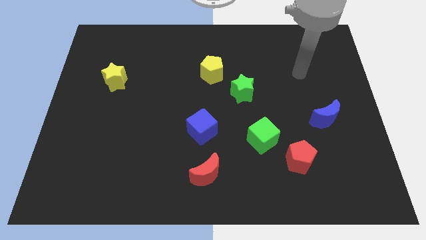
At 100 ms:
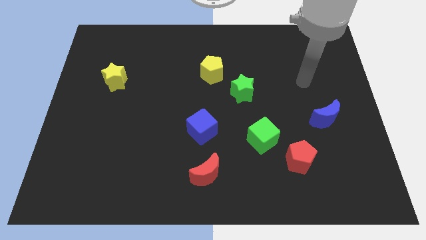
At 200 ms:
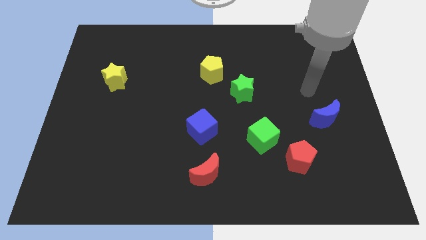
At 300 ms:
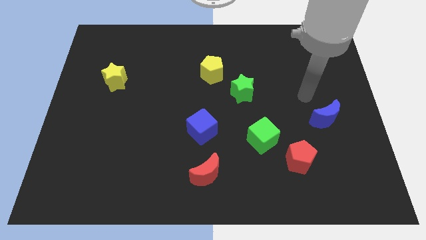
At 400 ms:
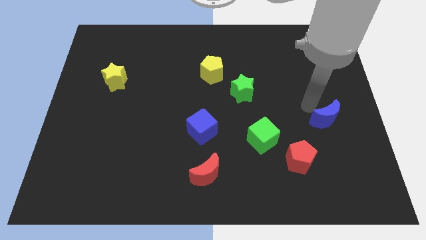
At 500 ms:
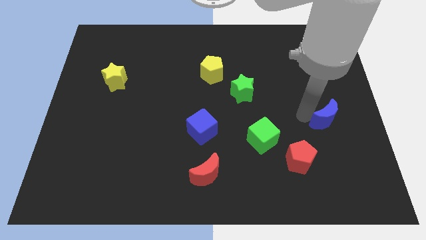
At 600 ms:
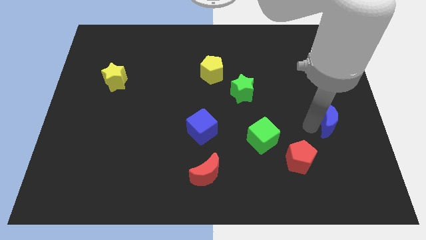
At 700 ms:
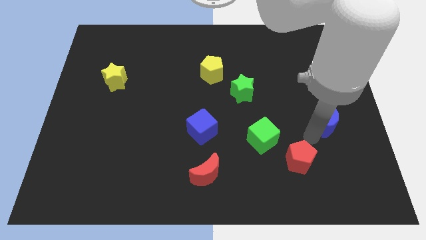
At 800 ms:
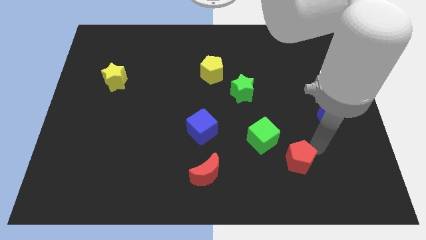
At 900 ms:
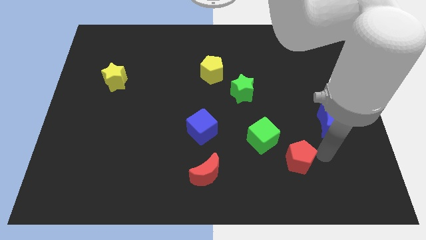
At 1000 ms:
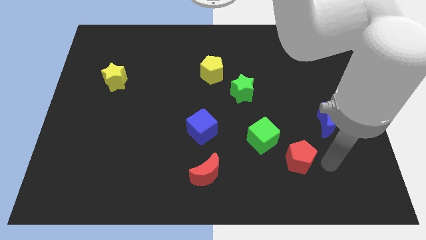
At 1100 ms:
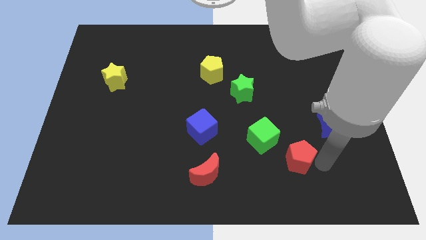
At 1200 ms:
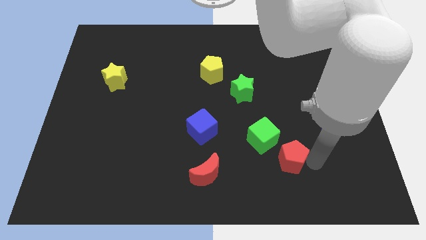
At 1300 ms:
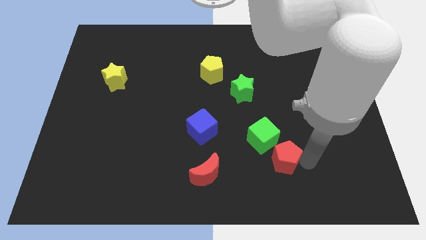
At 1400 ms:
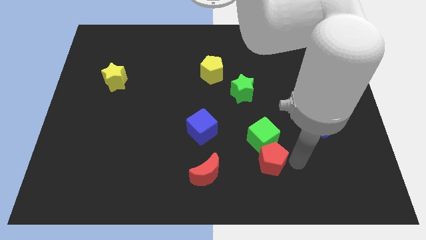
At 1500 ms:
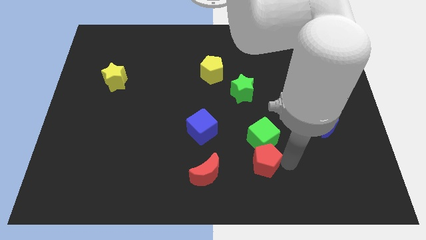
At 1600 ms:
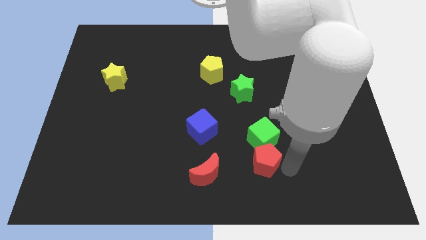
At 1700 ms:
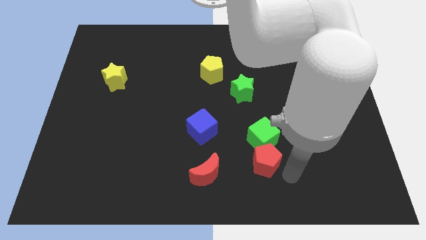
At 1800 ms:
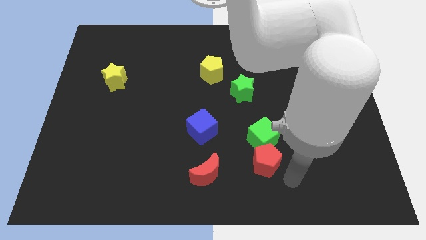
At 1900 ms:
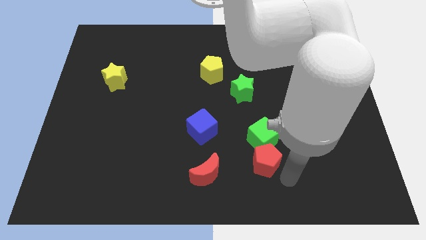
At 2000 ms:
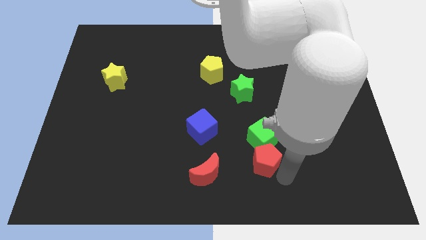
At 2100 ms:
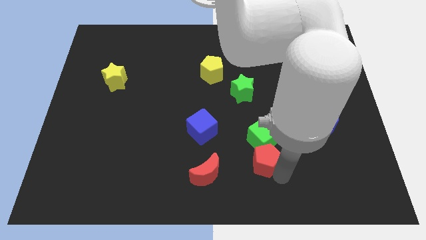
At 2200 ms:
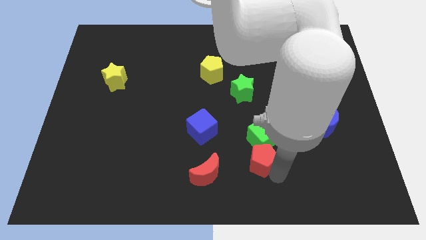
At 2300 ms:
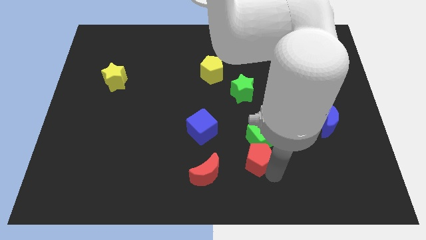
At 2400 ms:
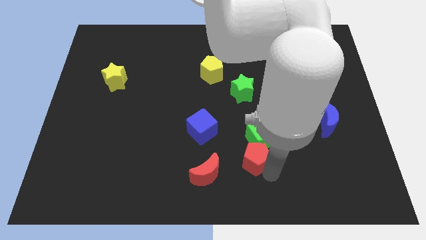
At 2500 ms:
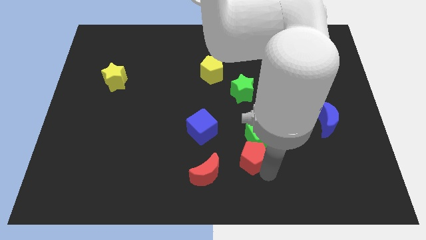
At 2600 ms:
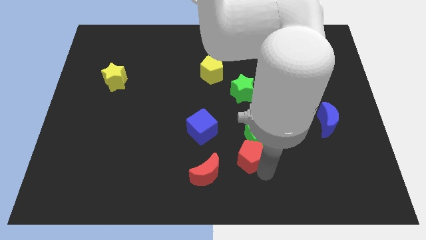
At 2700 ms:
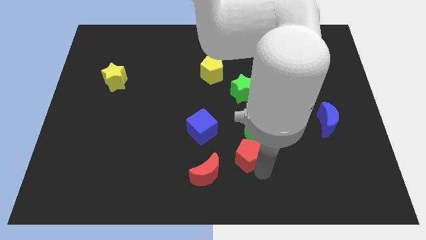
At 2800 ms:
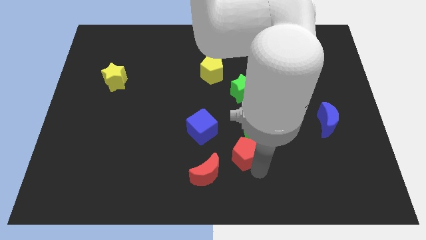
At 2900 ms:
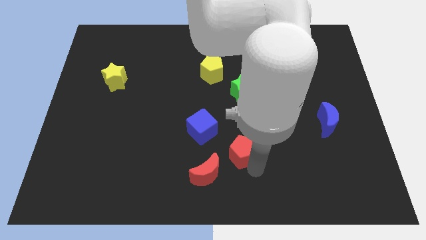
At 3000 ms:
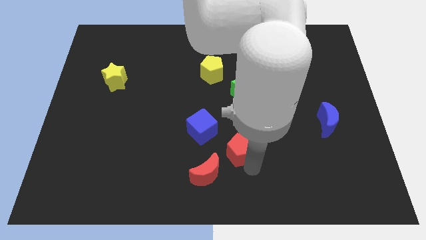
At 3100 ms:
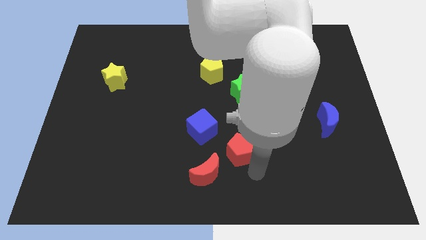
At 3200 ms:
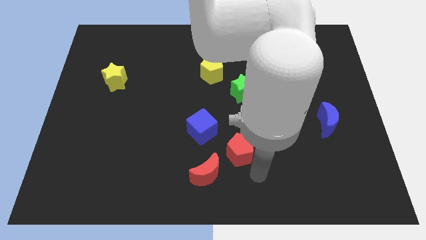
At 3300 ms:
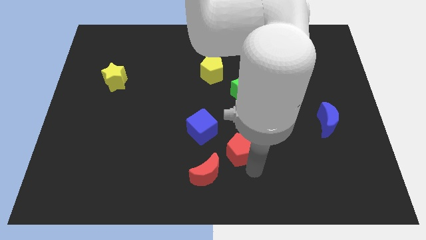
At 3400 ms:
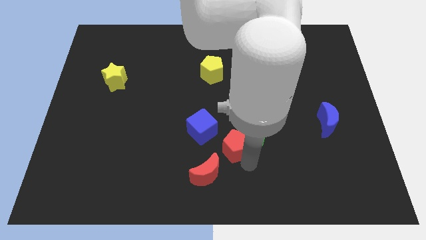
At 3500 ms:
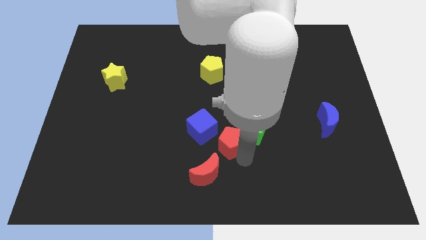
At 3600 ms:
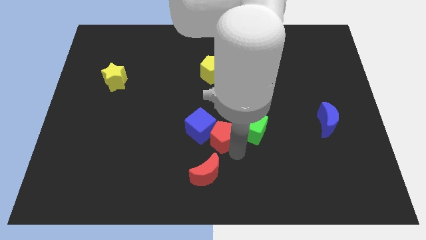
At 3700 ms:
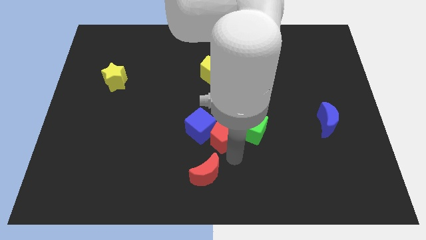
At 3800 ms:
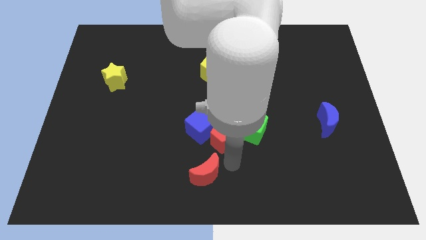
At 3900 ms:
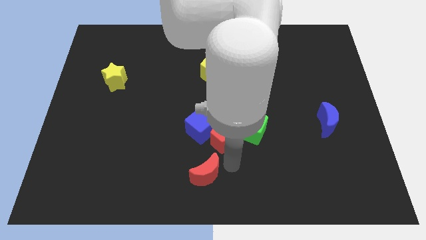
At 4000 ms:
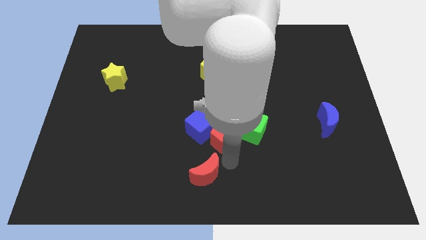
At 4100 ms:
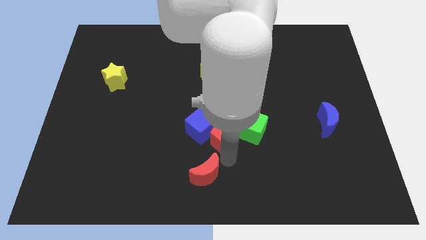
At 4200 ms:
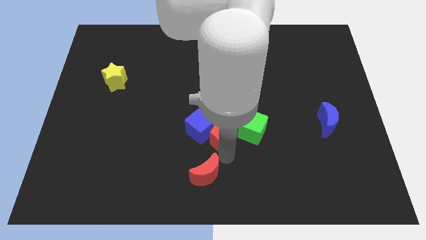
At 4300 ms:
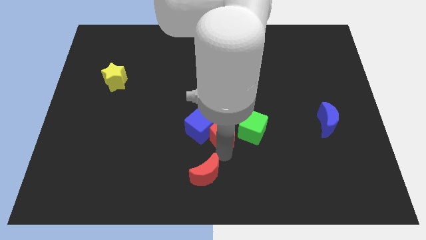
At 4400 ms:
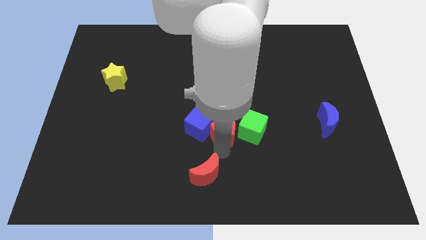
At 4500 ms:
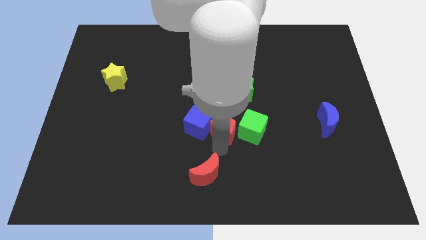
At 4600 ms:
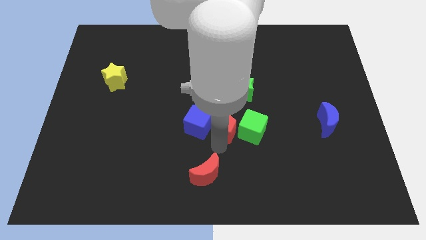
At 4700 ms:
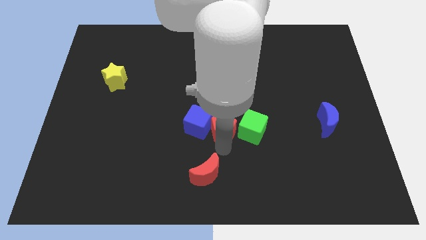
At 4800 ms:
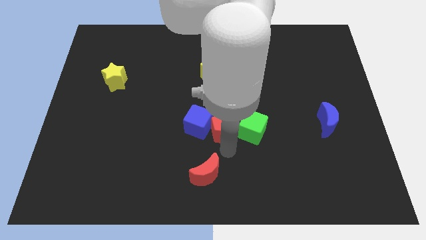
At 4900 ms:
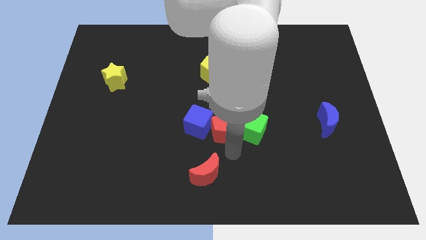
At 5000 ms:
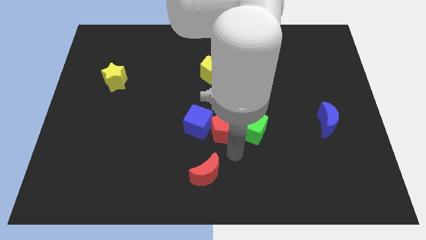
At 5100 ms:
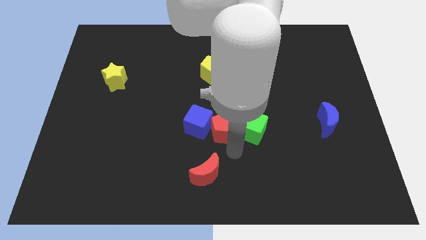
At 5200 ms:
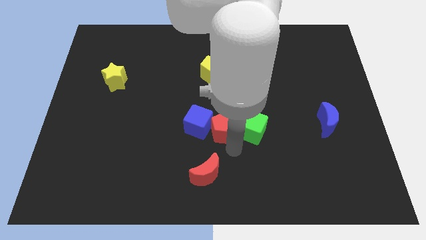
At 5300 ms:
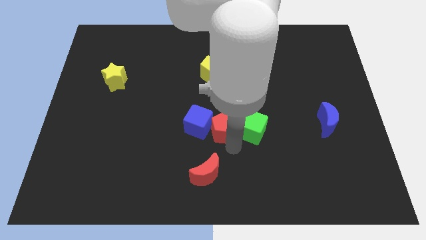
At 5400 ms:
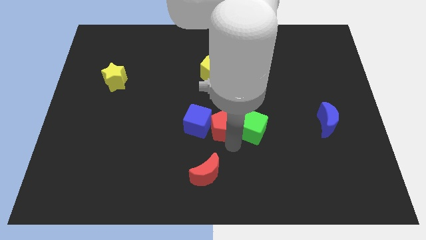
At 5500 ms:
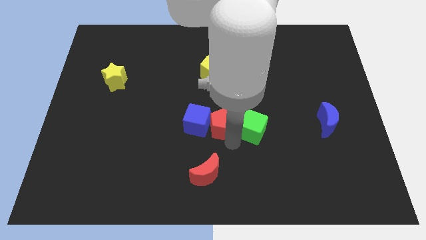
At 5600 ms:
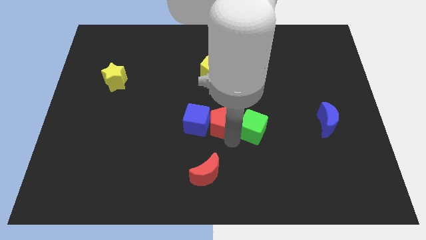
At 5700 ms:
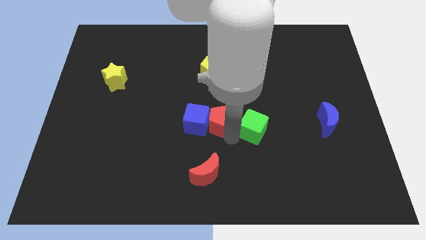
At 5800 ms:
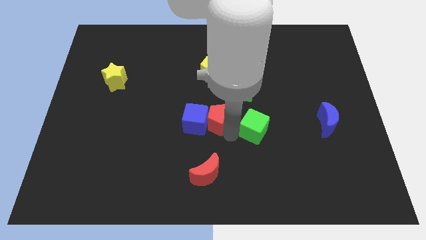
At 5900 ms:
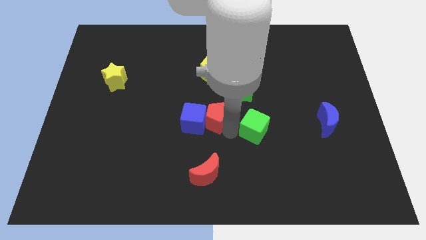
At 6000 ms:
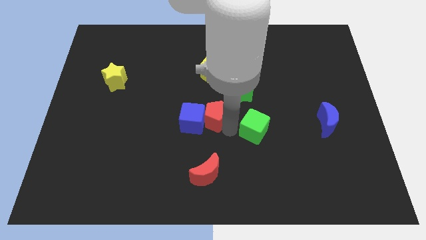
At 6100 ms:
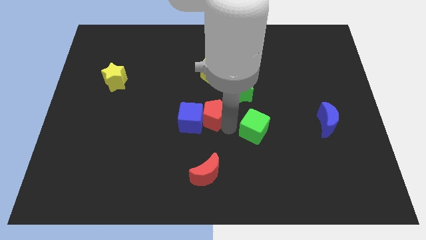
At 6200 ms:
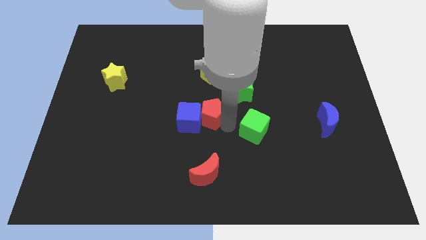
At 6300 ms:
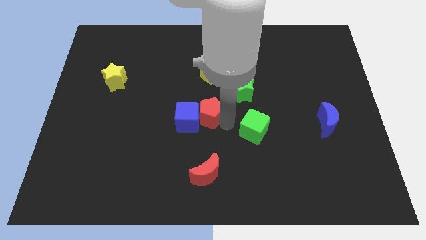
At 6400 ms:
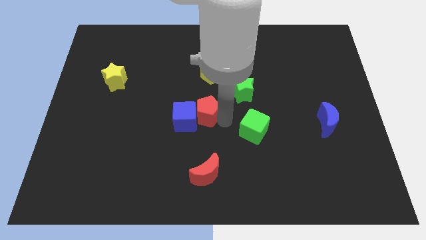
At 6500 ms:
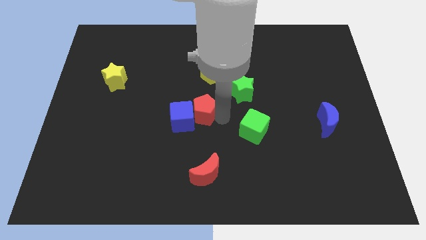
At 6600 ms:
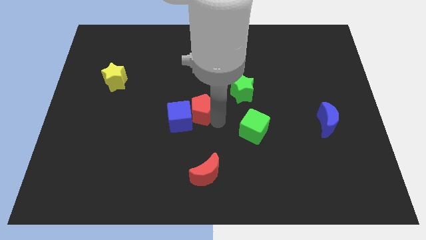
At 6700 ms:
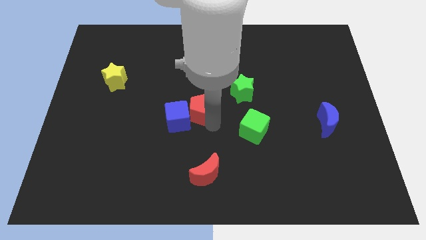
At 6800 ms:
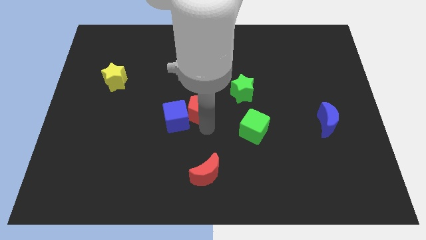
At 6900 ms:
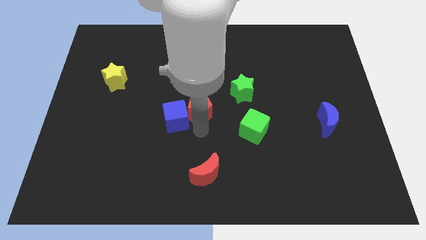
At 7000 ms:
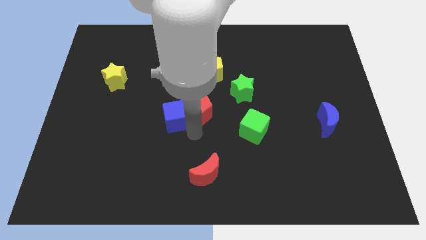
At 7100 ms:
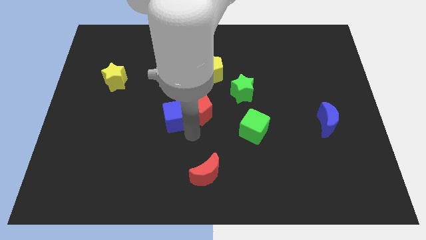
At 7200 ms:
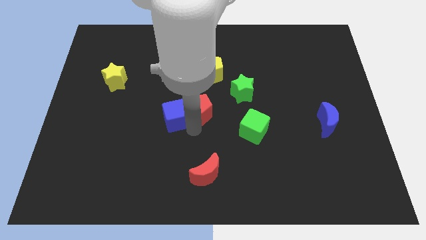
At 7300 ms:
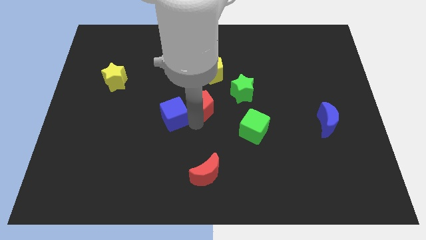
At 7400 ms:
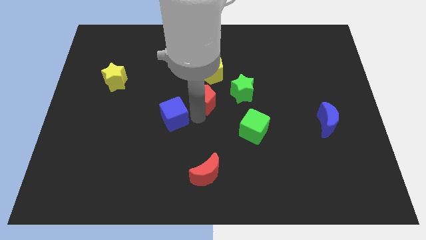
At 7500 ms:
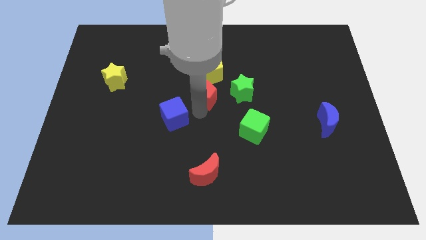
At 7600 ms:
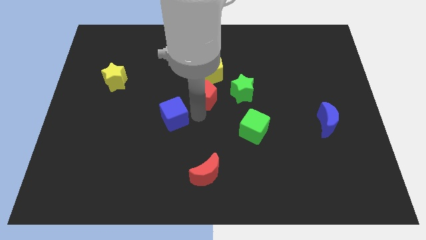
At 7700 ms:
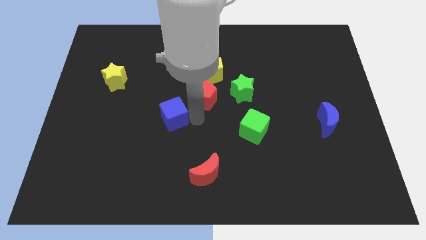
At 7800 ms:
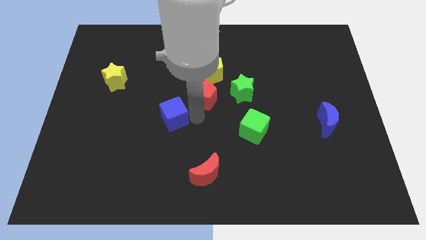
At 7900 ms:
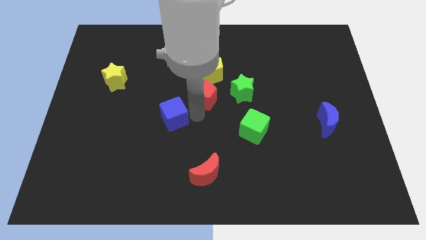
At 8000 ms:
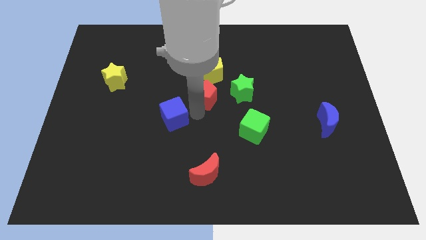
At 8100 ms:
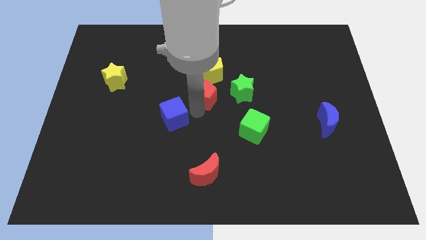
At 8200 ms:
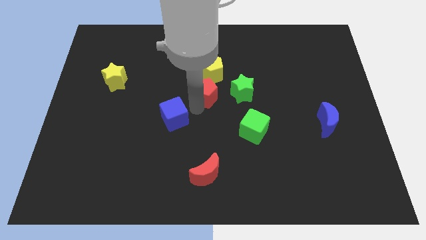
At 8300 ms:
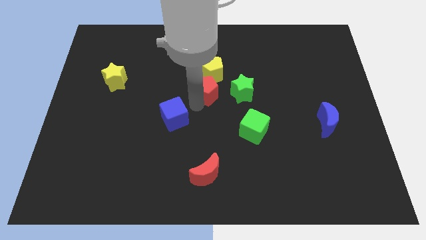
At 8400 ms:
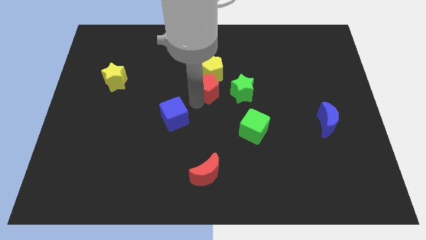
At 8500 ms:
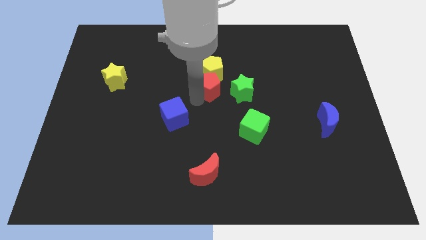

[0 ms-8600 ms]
put the red pentagon close to the yellow pentagon
